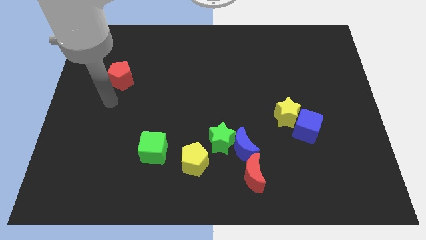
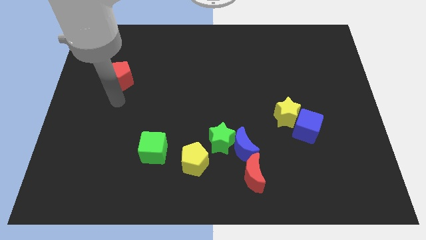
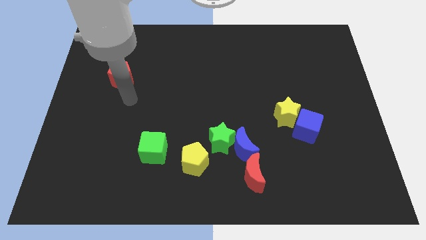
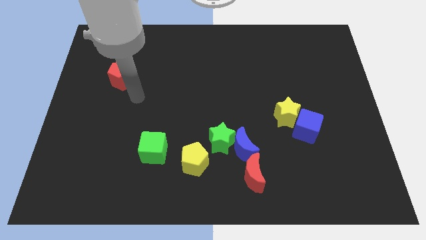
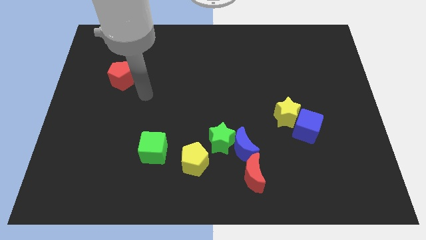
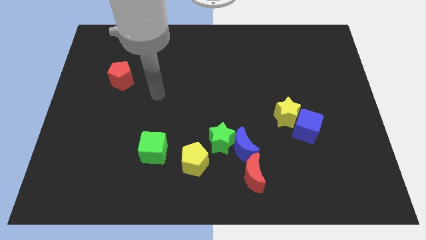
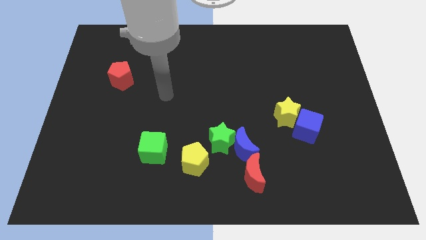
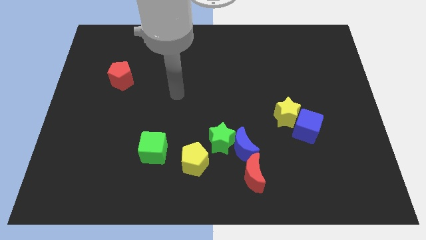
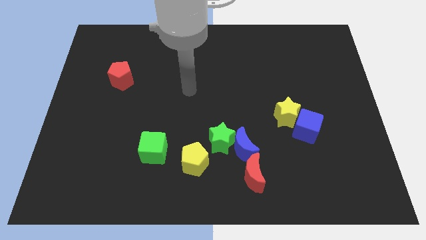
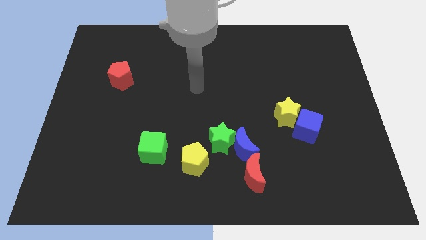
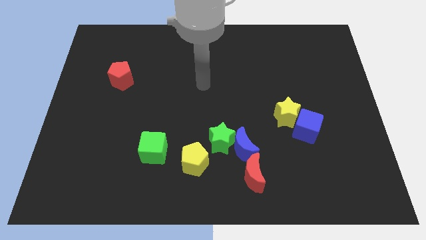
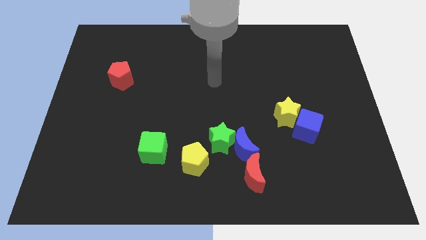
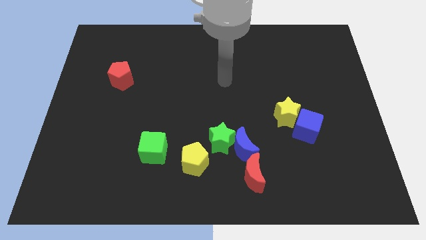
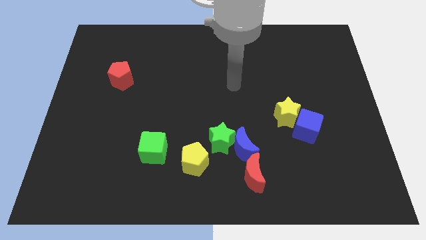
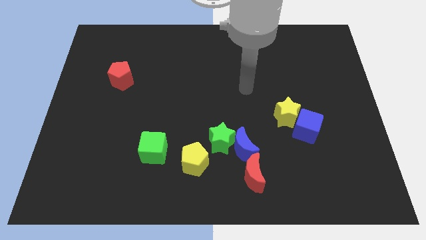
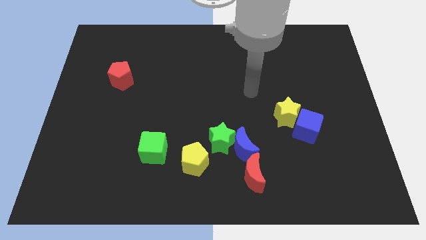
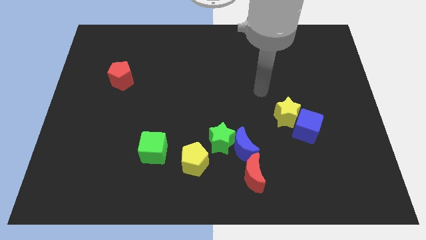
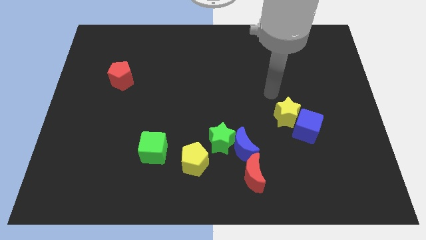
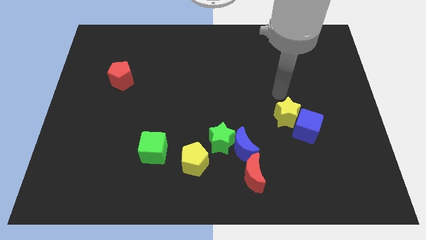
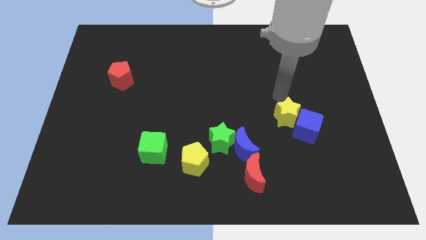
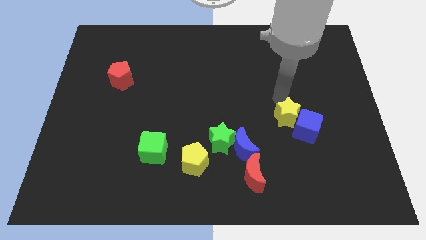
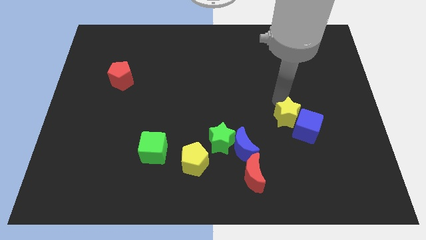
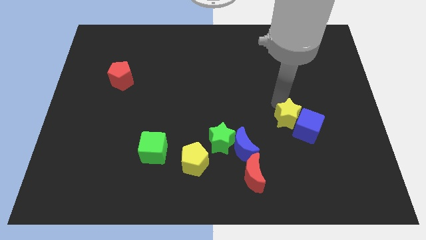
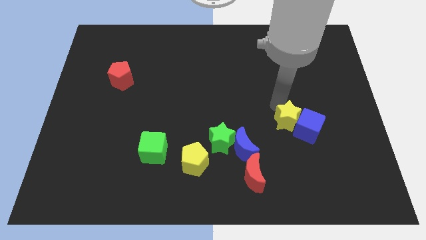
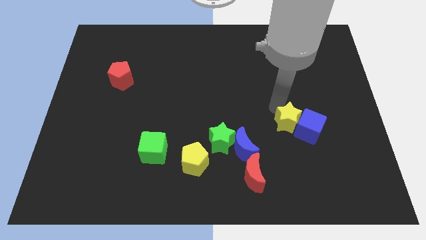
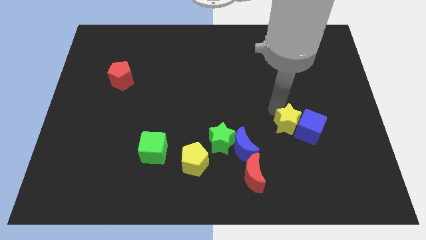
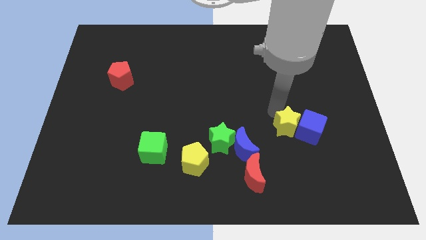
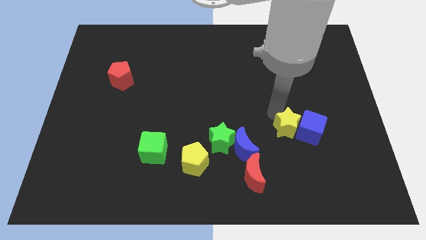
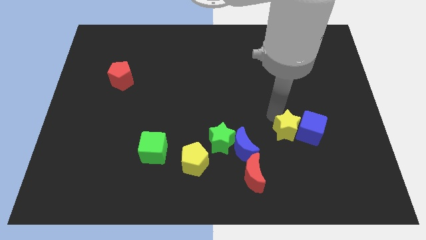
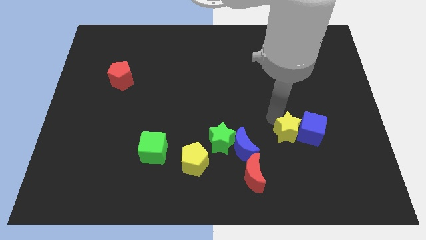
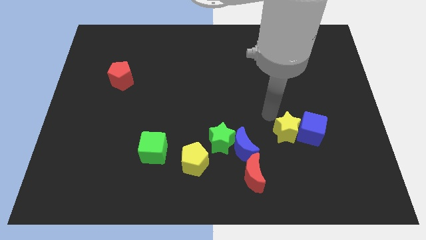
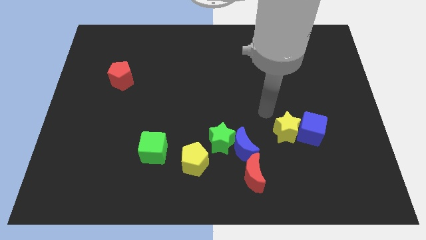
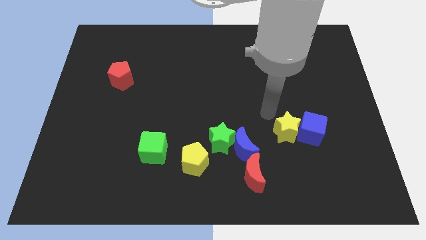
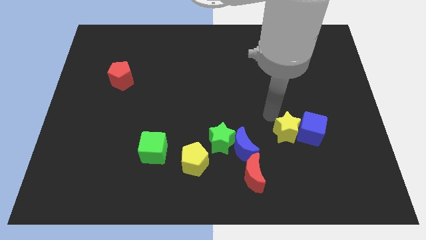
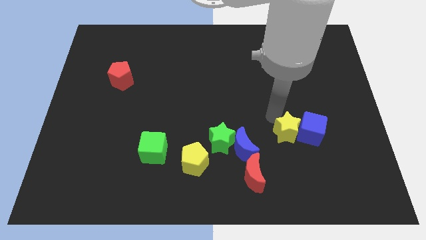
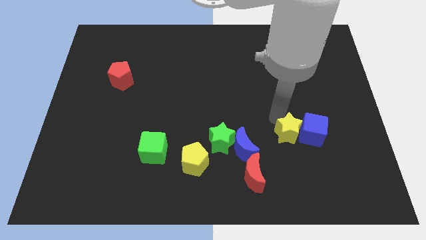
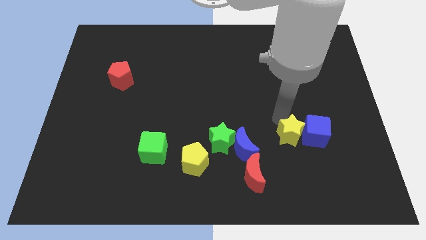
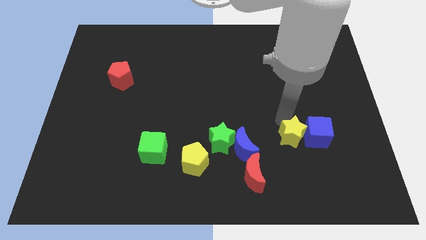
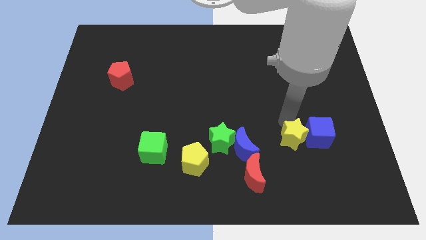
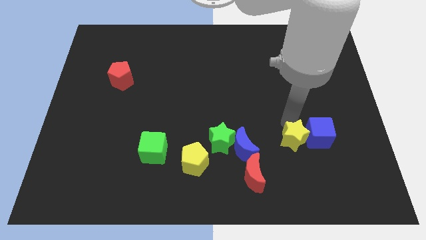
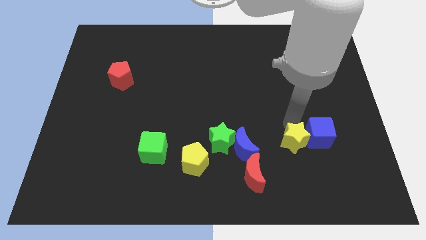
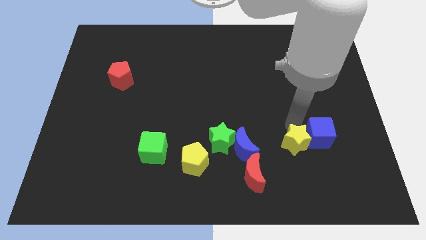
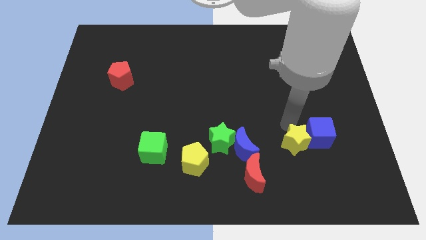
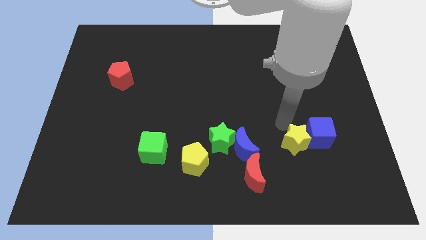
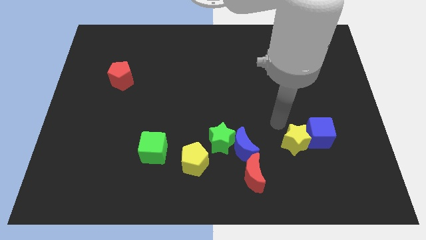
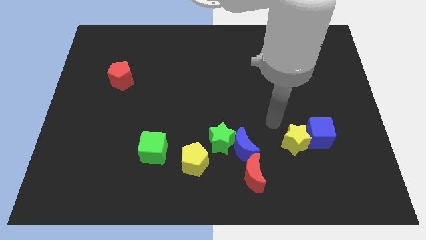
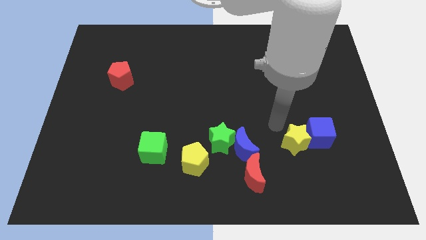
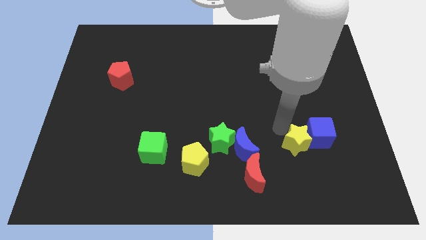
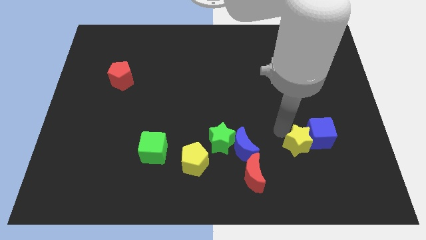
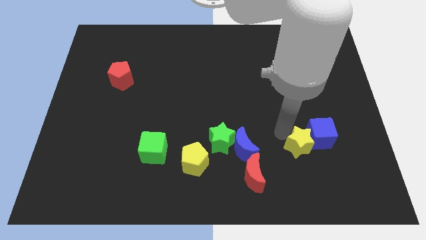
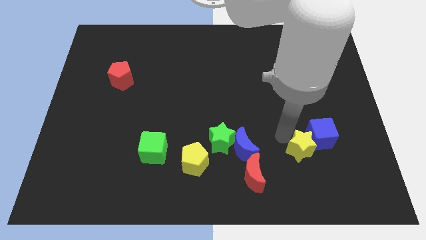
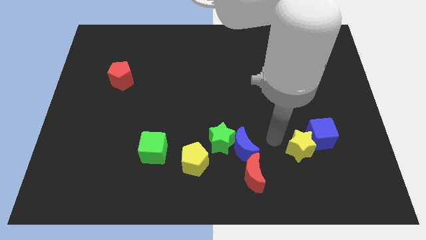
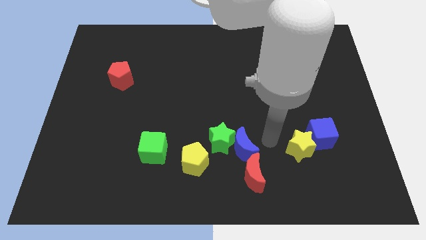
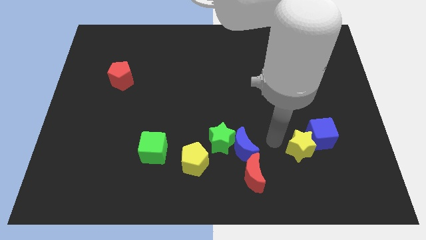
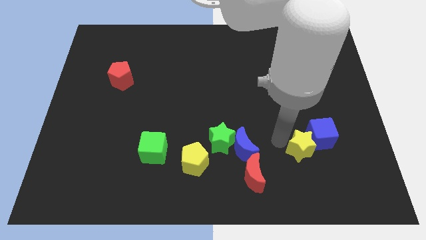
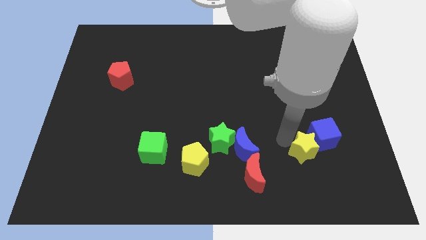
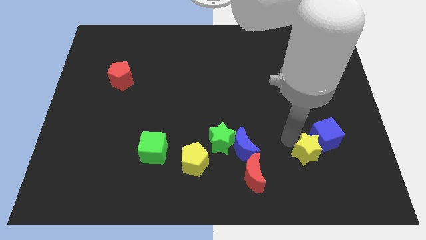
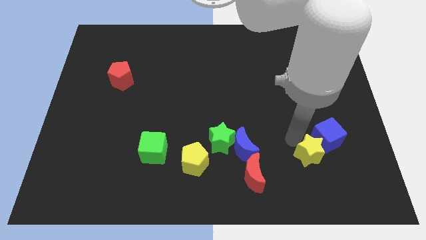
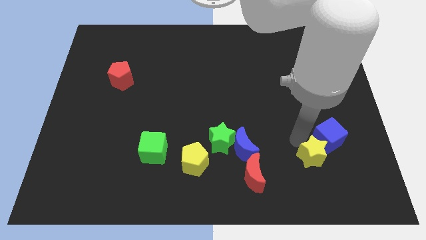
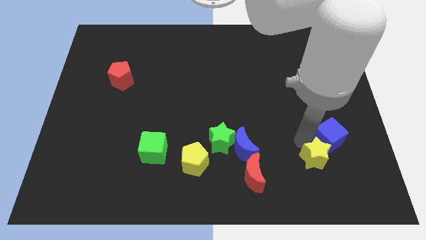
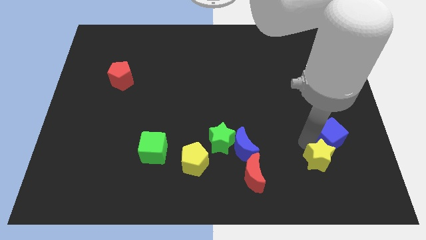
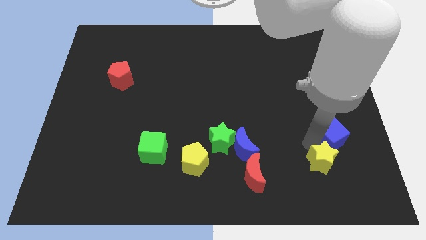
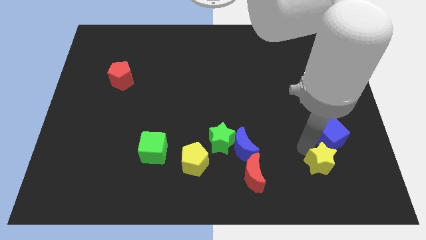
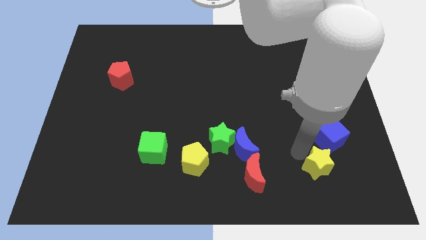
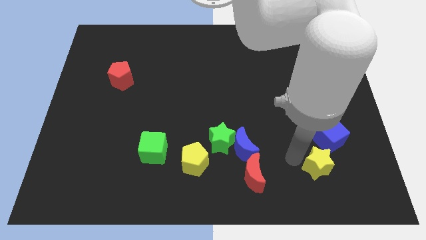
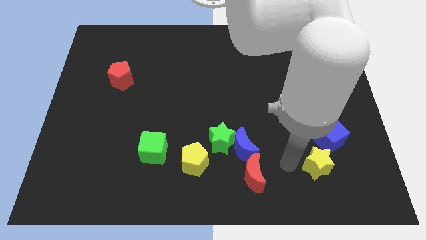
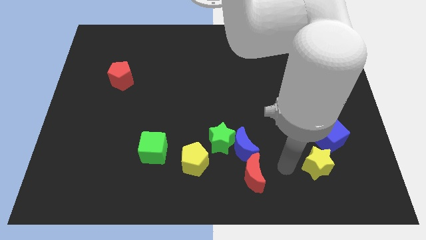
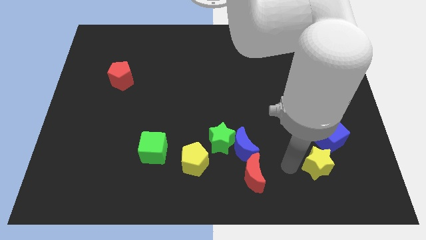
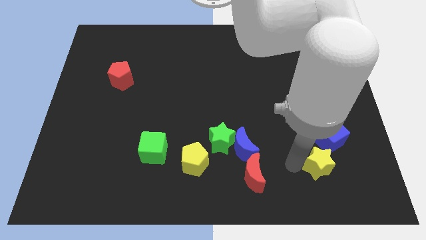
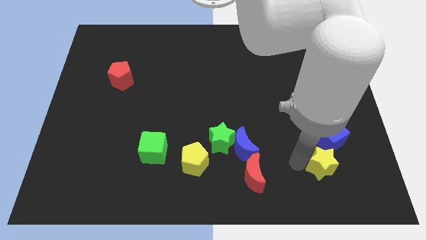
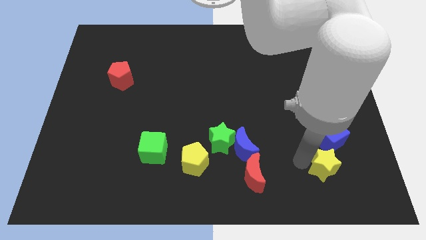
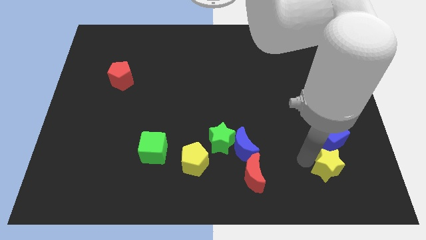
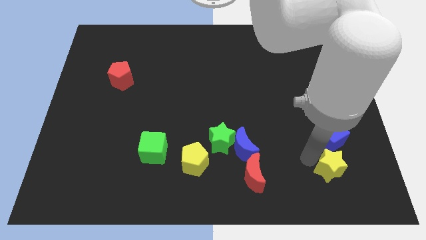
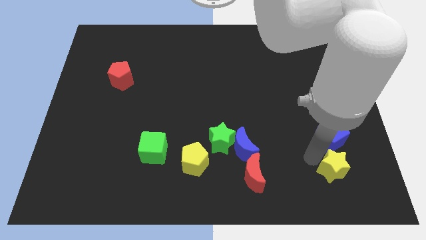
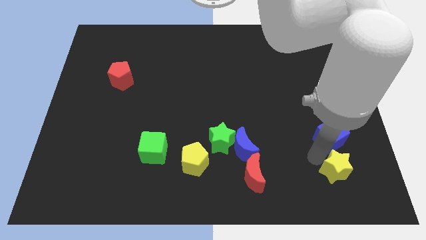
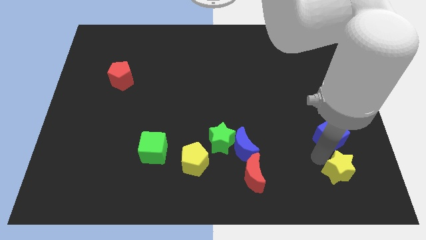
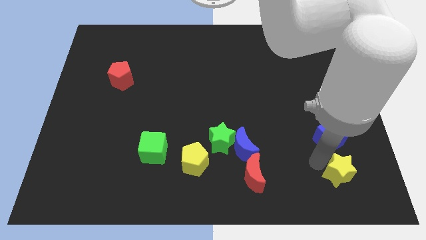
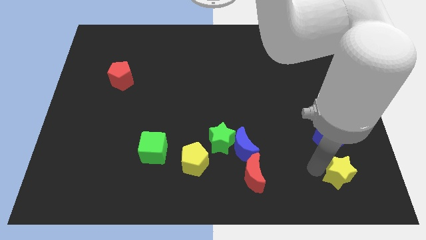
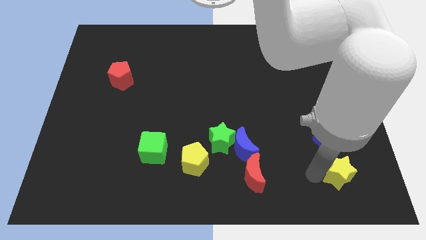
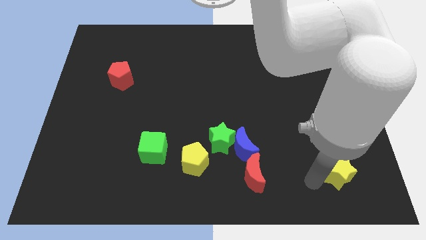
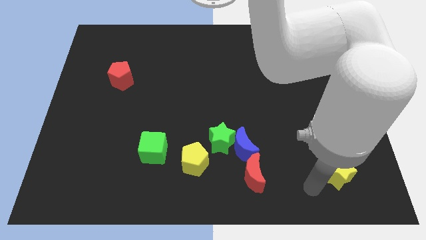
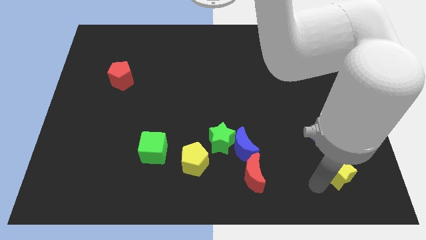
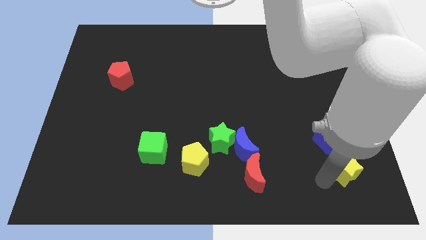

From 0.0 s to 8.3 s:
put the yellow star to the bottom right side of the blue cube
